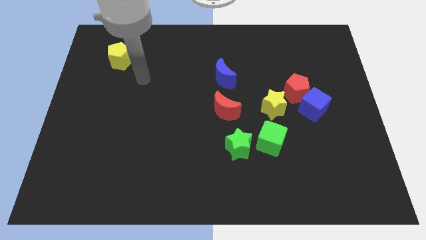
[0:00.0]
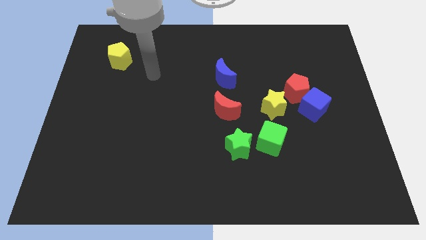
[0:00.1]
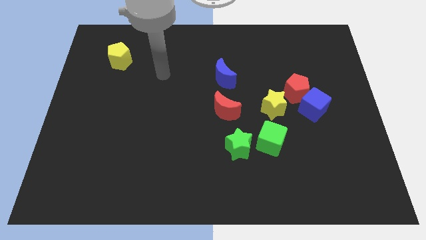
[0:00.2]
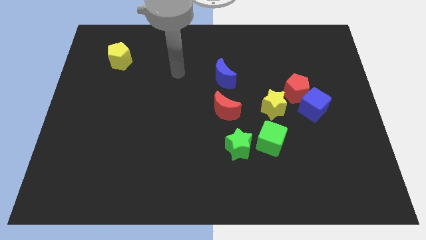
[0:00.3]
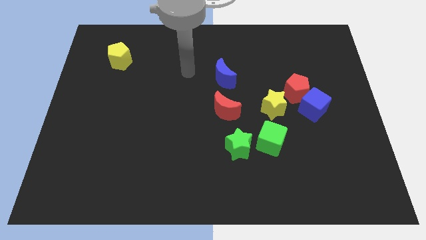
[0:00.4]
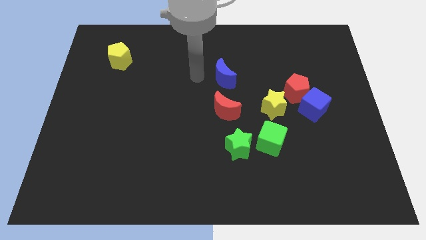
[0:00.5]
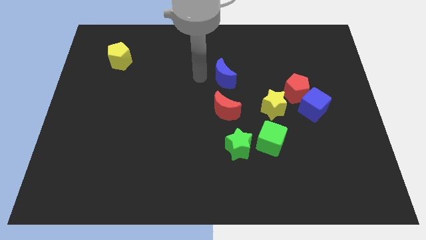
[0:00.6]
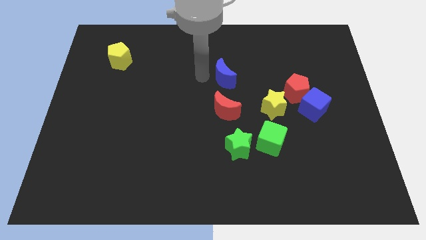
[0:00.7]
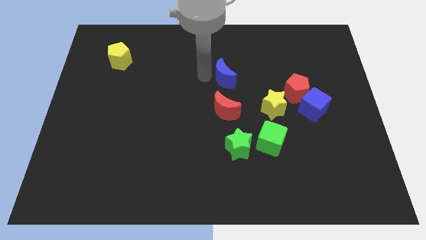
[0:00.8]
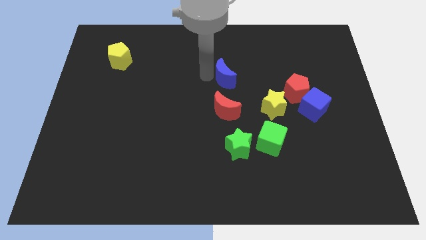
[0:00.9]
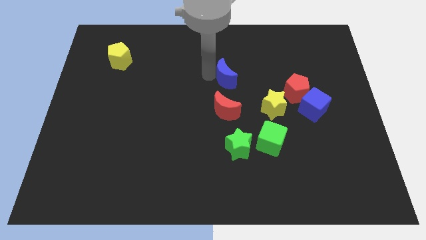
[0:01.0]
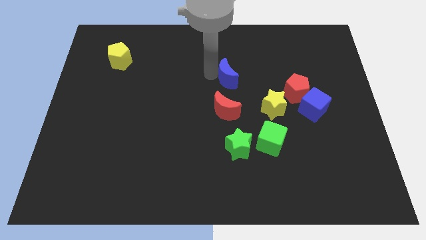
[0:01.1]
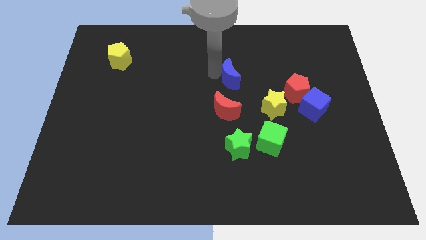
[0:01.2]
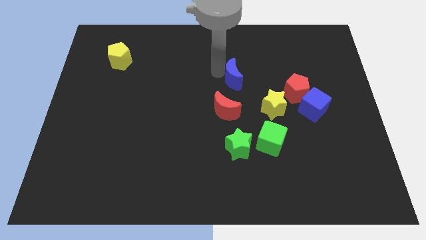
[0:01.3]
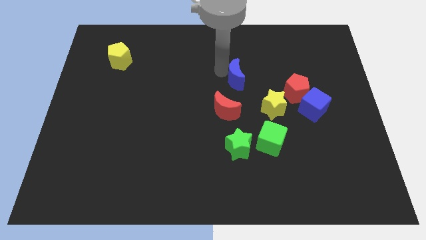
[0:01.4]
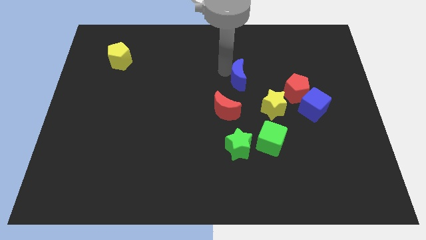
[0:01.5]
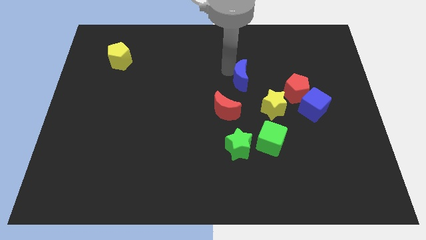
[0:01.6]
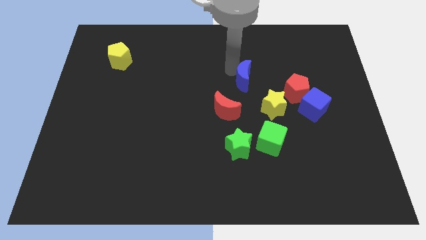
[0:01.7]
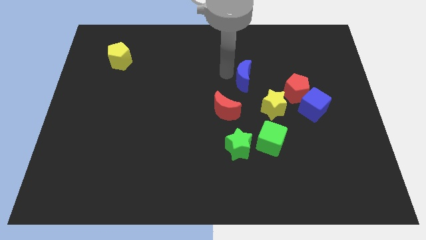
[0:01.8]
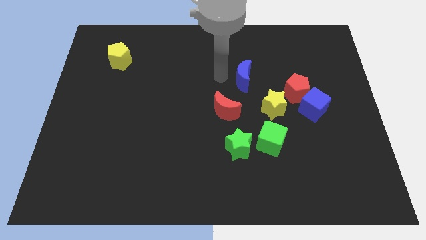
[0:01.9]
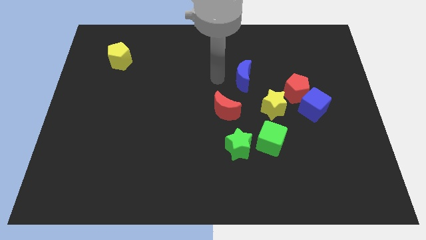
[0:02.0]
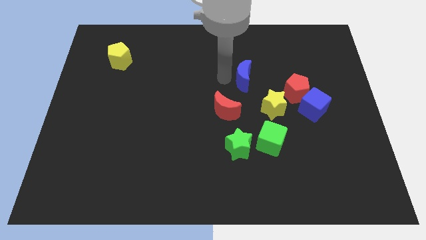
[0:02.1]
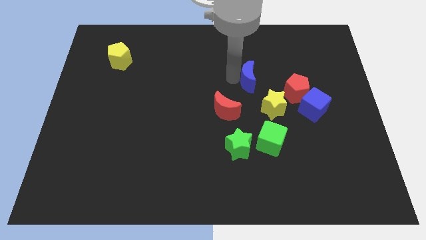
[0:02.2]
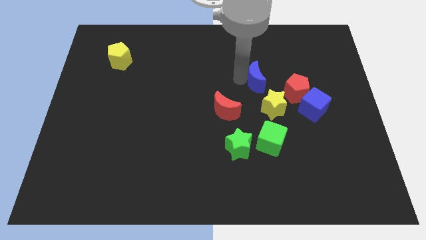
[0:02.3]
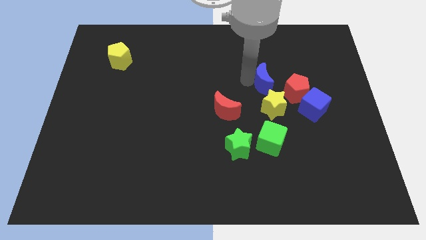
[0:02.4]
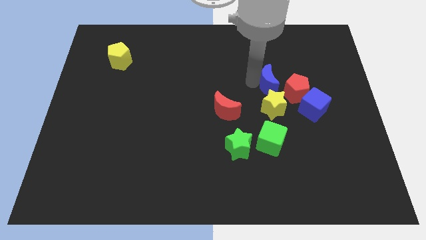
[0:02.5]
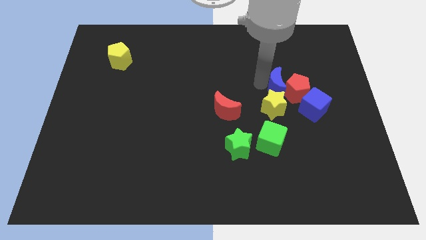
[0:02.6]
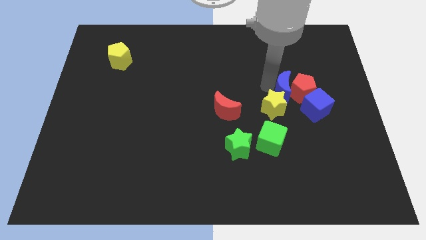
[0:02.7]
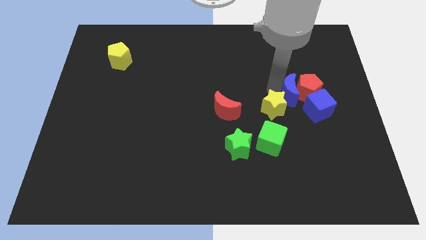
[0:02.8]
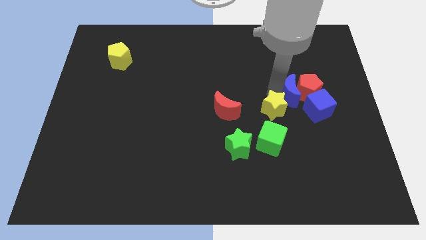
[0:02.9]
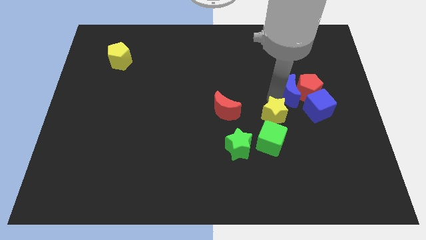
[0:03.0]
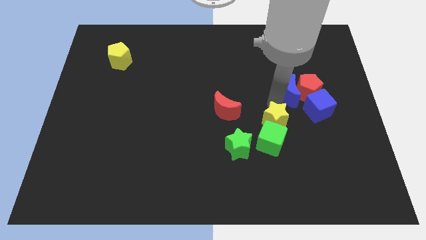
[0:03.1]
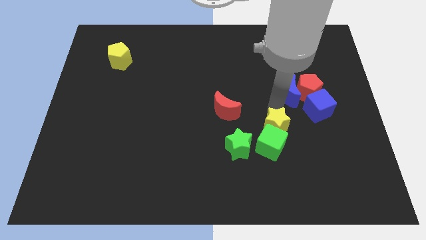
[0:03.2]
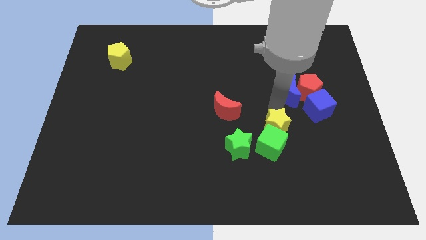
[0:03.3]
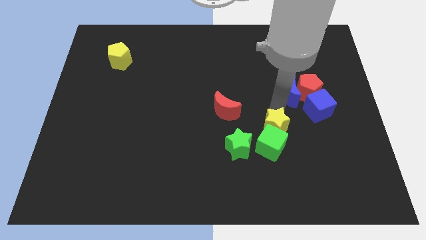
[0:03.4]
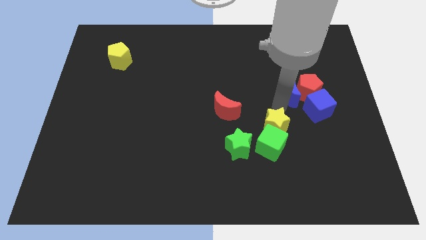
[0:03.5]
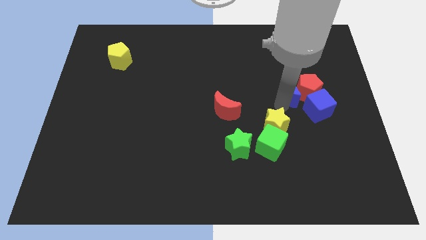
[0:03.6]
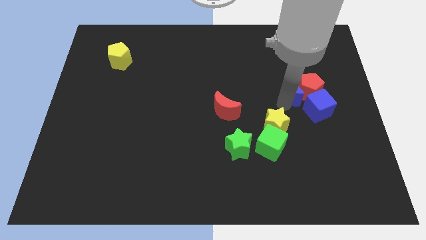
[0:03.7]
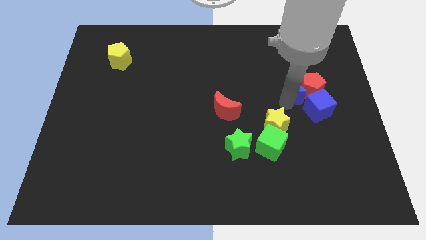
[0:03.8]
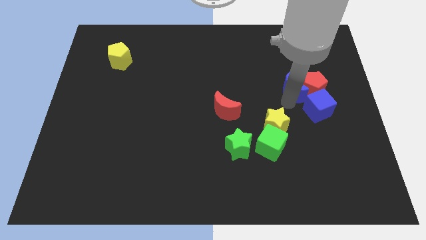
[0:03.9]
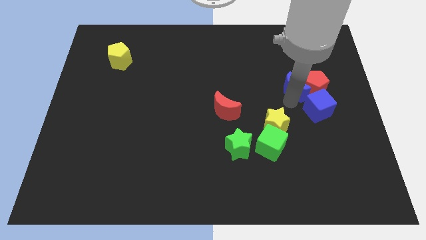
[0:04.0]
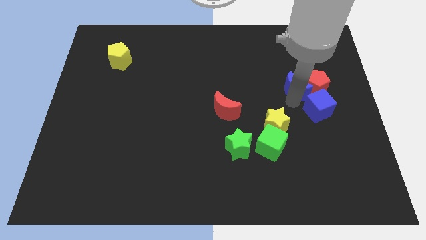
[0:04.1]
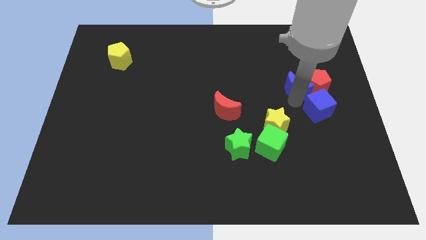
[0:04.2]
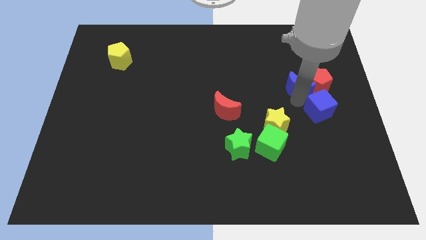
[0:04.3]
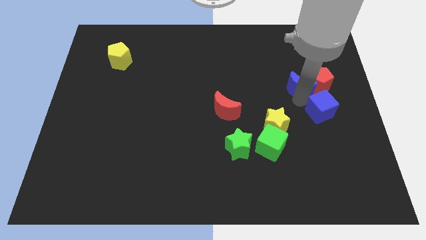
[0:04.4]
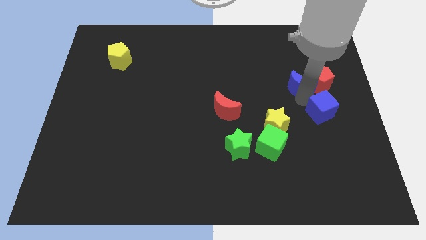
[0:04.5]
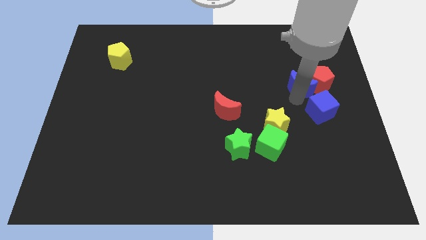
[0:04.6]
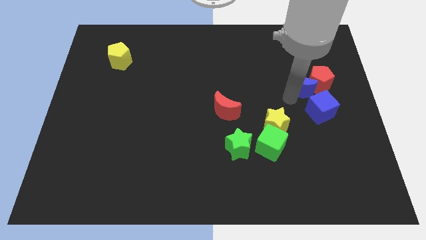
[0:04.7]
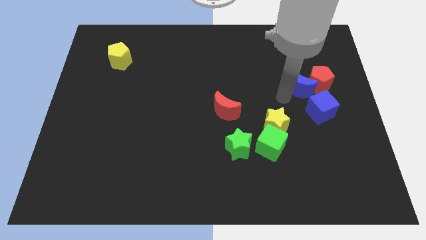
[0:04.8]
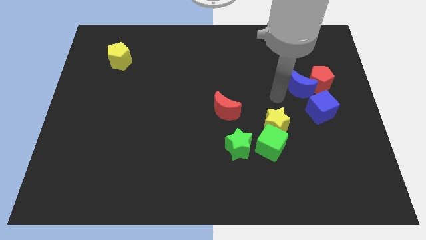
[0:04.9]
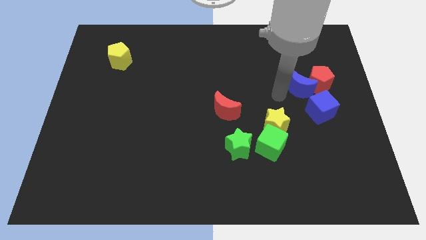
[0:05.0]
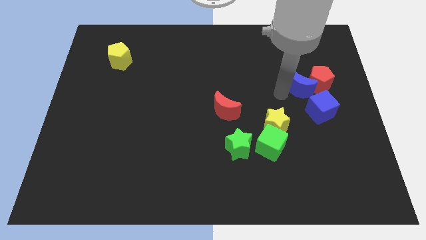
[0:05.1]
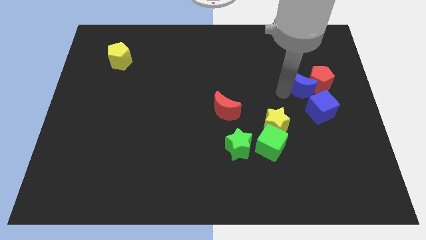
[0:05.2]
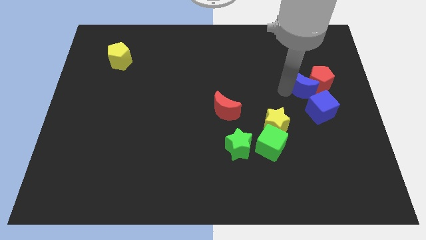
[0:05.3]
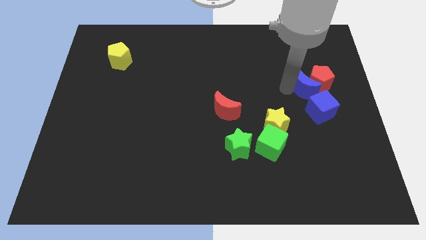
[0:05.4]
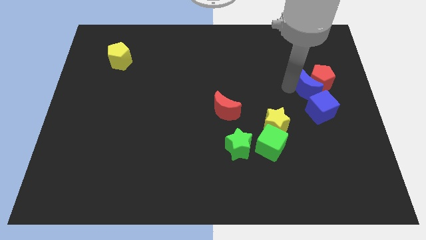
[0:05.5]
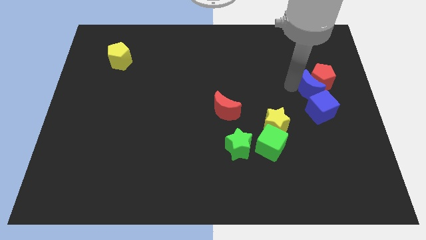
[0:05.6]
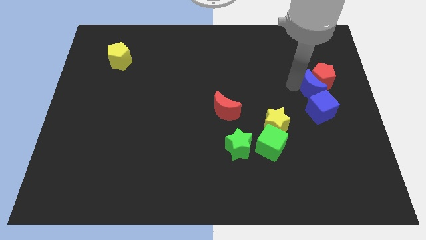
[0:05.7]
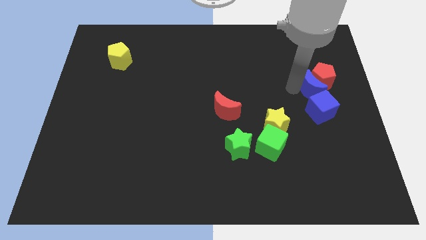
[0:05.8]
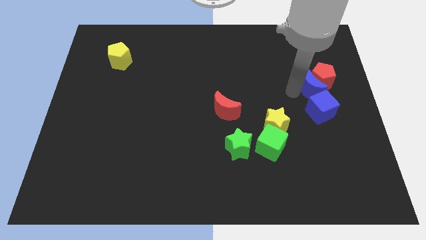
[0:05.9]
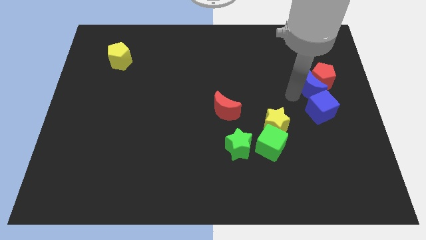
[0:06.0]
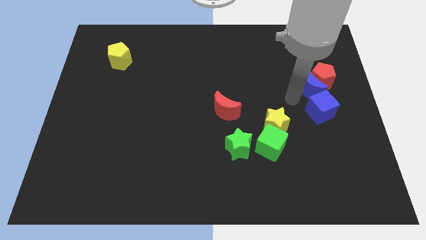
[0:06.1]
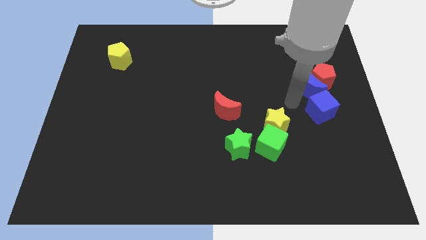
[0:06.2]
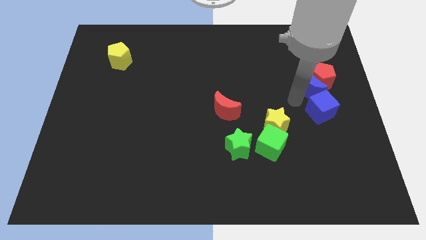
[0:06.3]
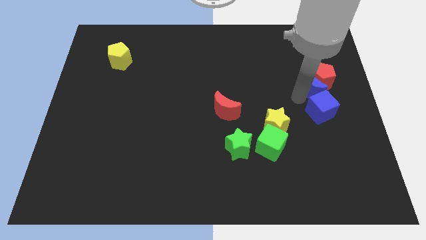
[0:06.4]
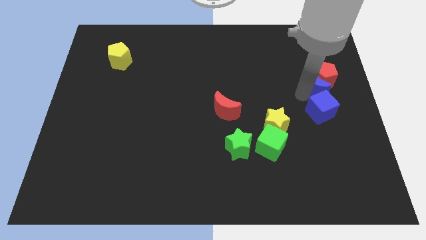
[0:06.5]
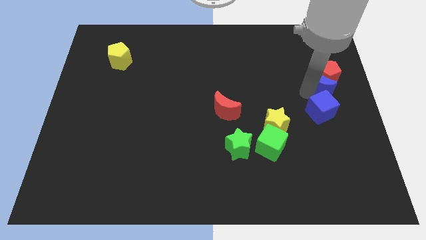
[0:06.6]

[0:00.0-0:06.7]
move the blue moon to the center right
